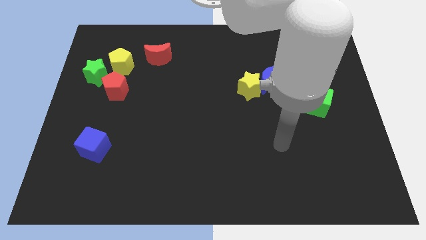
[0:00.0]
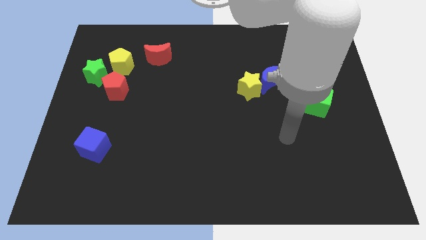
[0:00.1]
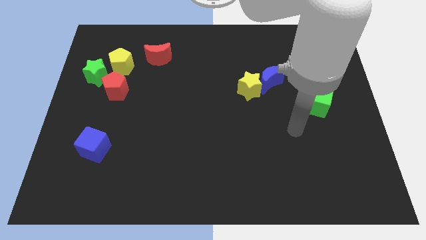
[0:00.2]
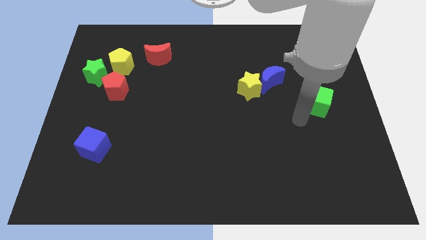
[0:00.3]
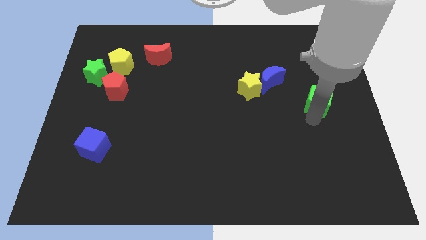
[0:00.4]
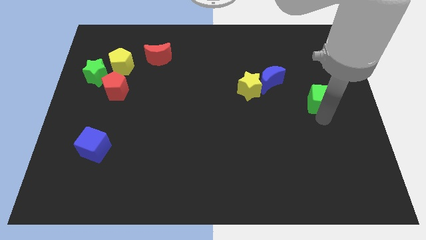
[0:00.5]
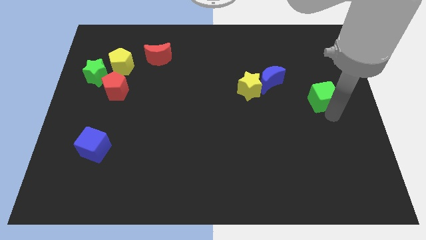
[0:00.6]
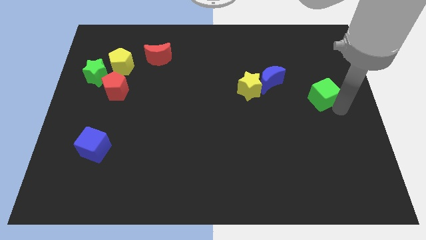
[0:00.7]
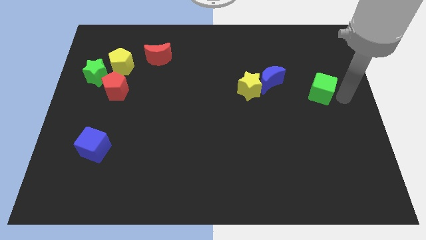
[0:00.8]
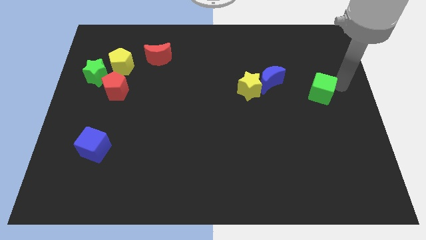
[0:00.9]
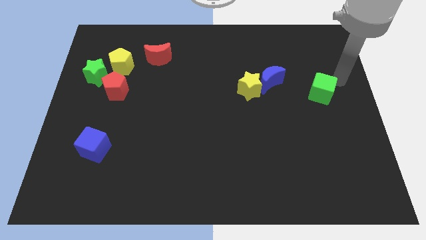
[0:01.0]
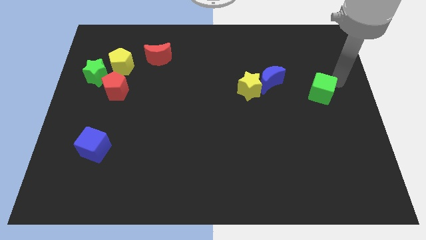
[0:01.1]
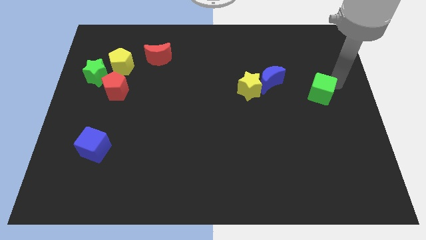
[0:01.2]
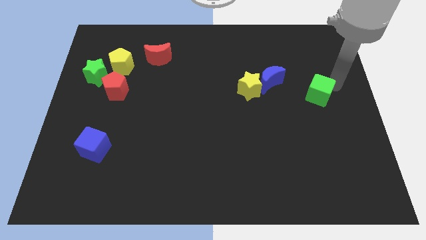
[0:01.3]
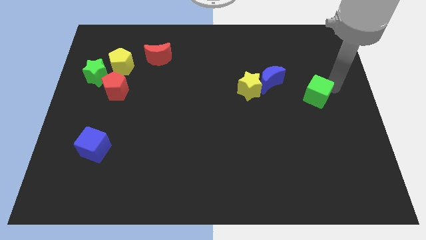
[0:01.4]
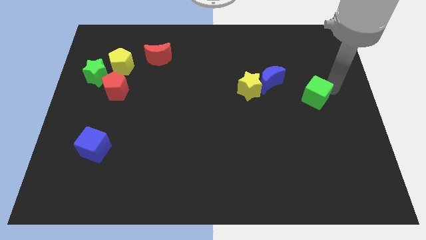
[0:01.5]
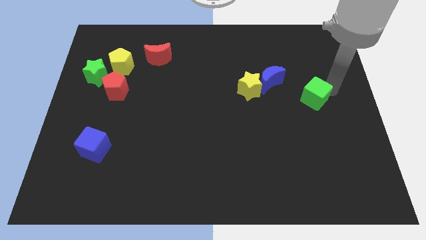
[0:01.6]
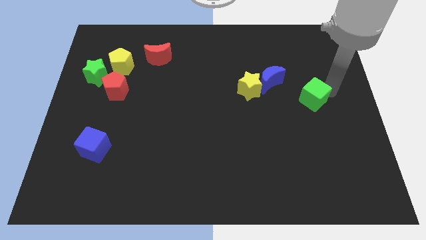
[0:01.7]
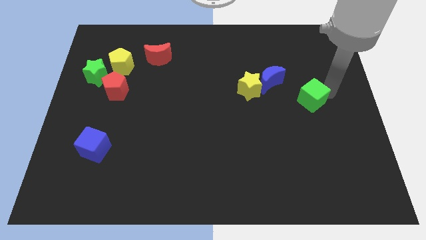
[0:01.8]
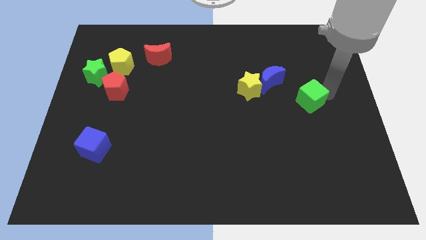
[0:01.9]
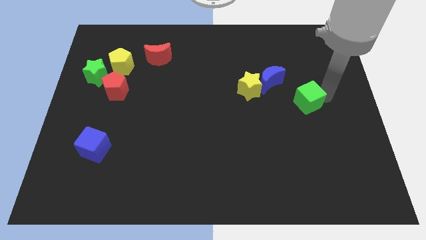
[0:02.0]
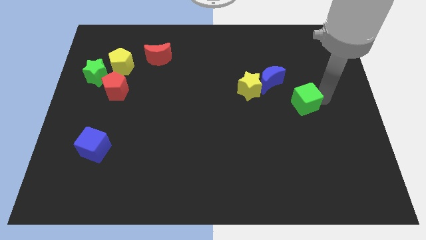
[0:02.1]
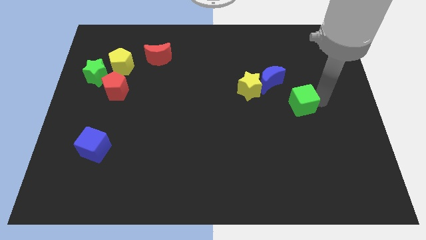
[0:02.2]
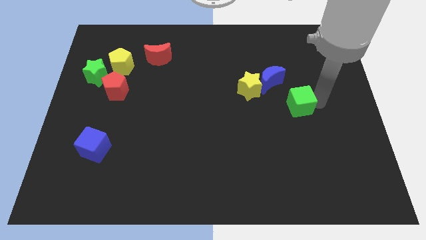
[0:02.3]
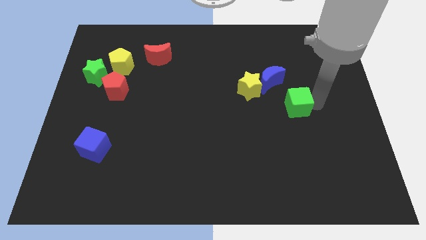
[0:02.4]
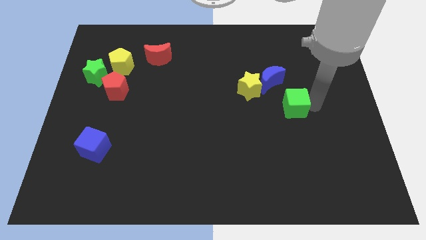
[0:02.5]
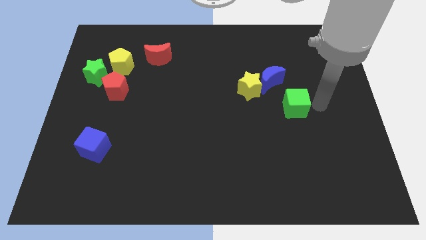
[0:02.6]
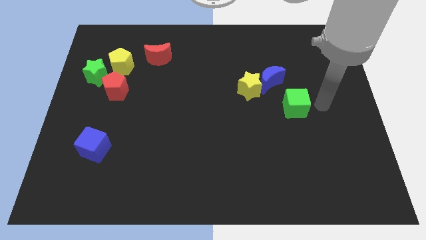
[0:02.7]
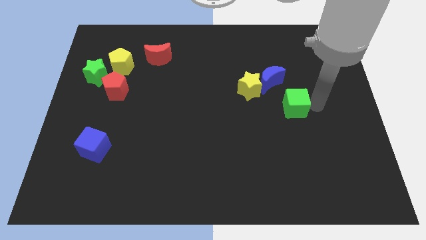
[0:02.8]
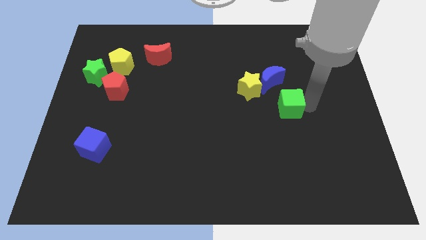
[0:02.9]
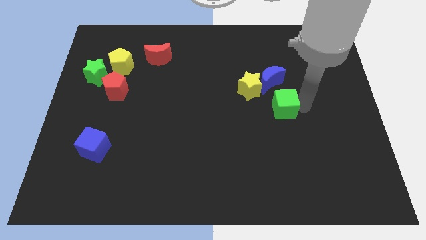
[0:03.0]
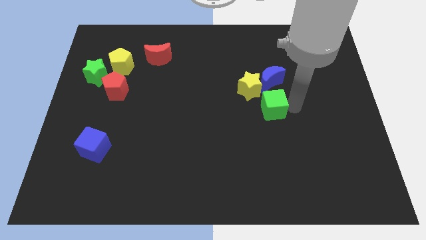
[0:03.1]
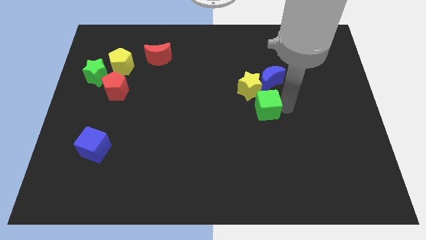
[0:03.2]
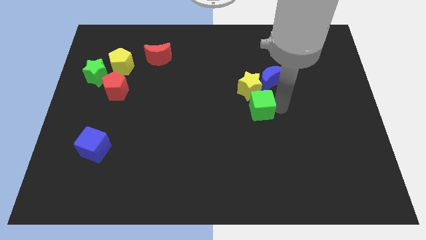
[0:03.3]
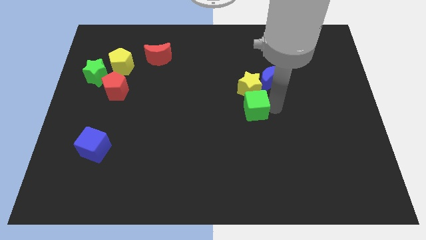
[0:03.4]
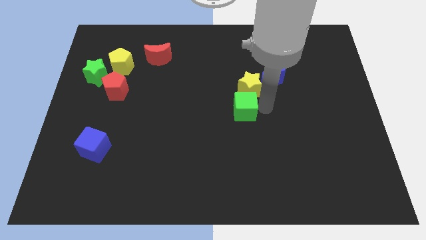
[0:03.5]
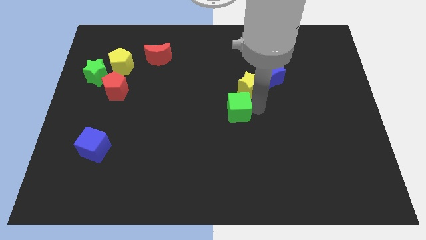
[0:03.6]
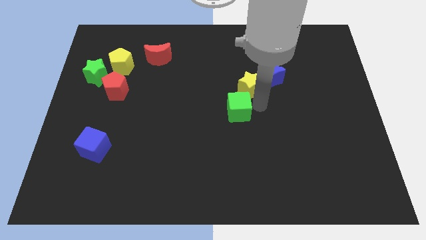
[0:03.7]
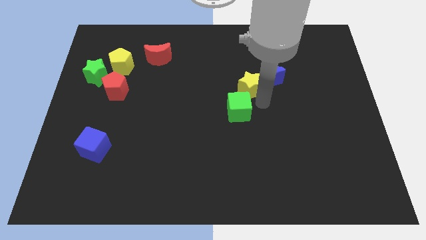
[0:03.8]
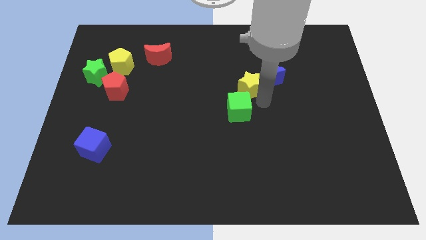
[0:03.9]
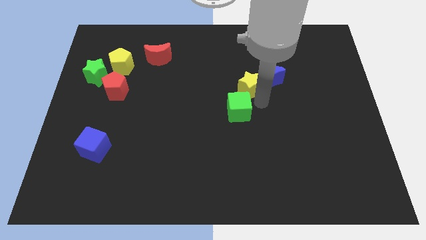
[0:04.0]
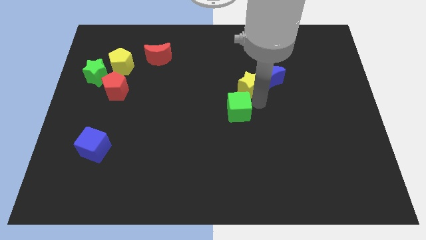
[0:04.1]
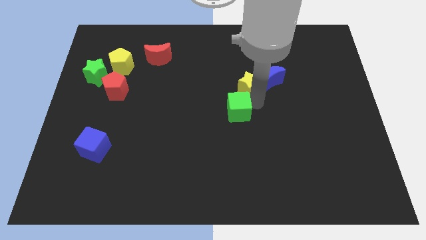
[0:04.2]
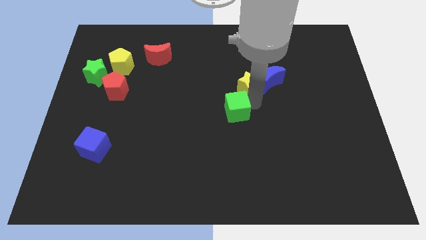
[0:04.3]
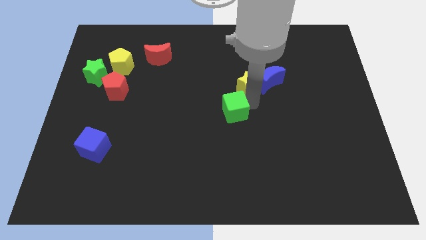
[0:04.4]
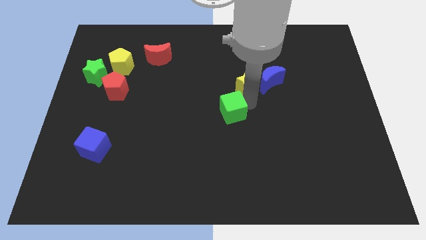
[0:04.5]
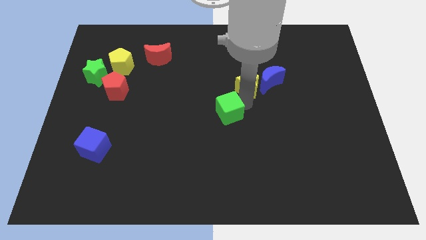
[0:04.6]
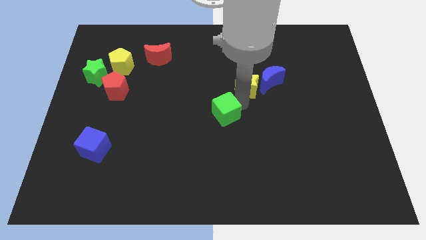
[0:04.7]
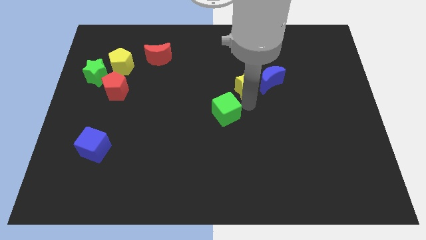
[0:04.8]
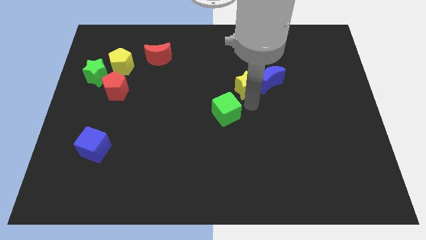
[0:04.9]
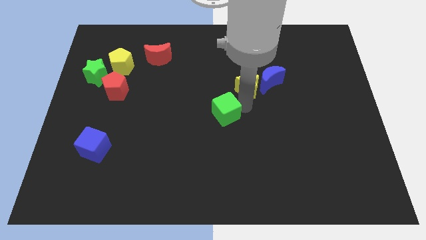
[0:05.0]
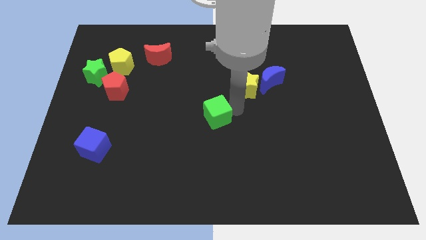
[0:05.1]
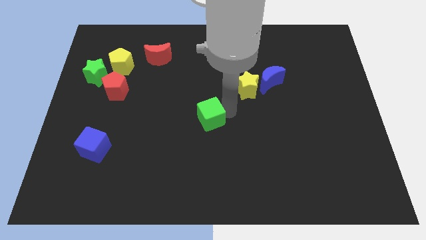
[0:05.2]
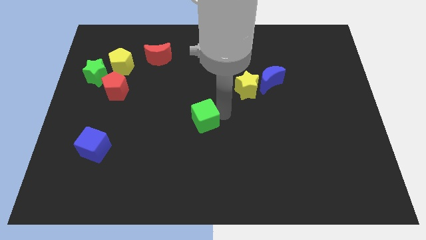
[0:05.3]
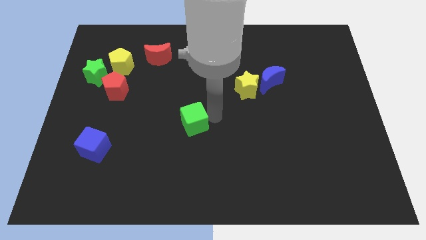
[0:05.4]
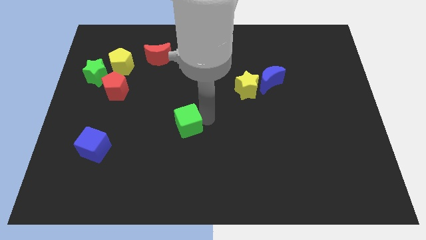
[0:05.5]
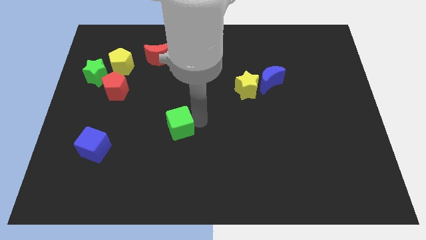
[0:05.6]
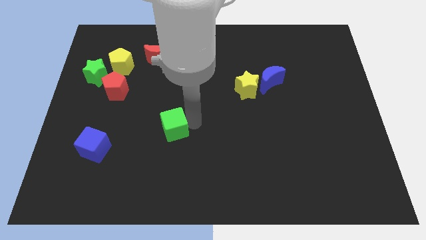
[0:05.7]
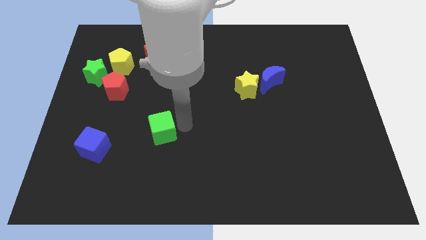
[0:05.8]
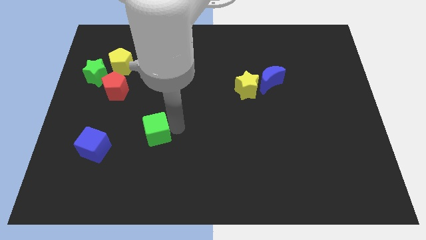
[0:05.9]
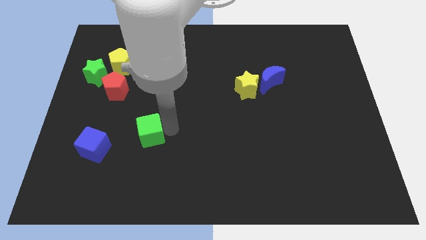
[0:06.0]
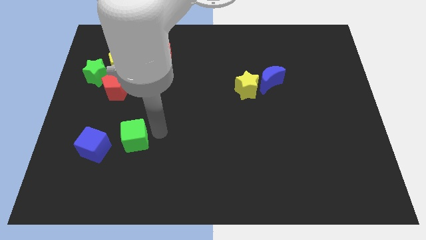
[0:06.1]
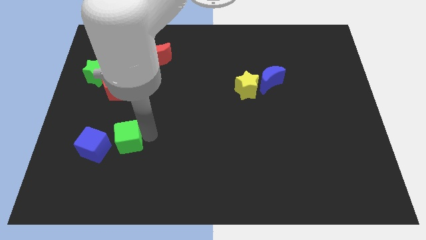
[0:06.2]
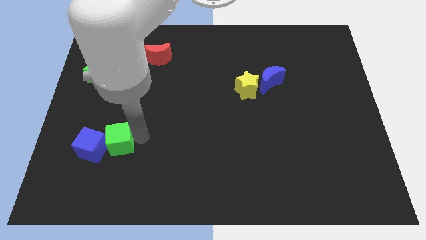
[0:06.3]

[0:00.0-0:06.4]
put the green cube to the blue cube

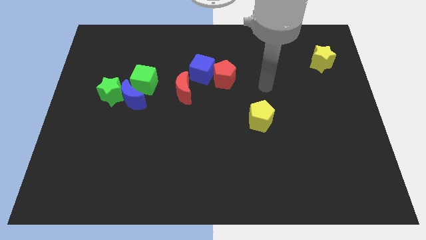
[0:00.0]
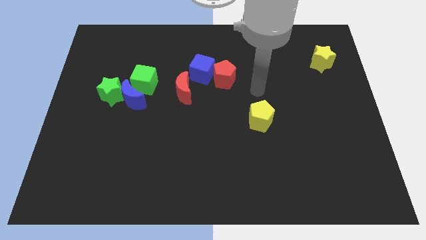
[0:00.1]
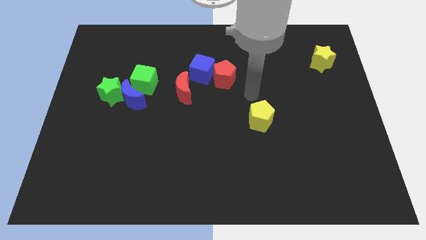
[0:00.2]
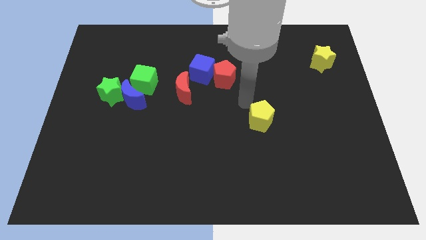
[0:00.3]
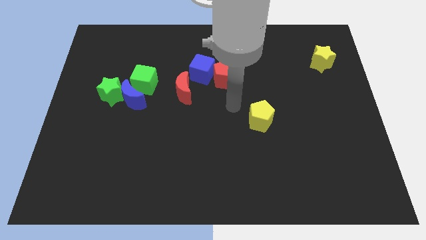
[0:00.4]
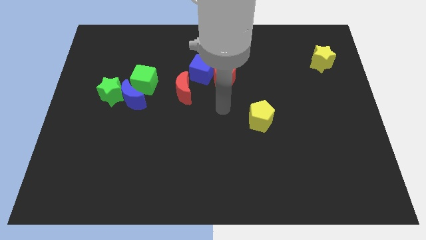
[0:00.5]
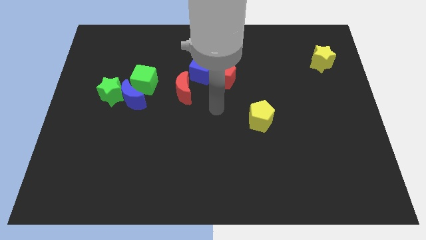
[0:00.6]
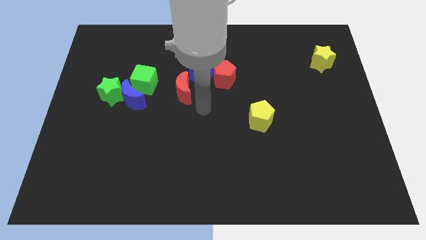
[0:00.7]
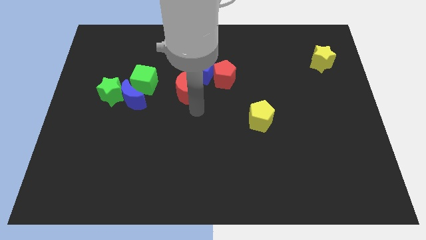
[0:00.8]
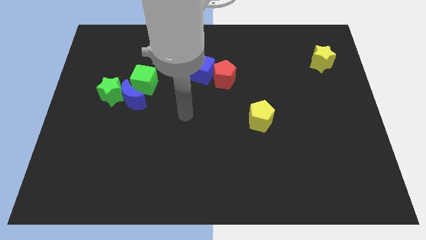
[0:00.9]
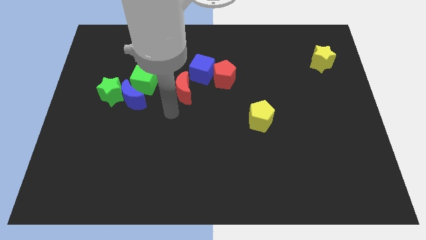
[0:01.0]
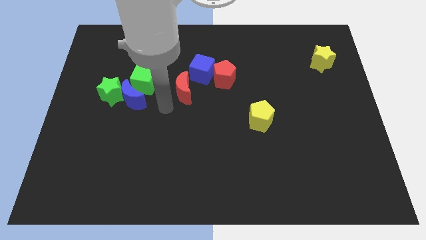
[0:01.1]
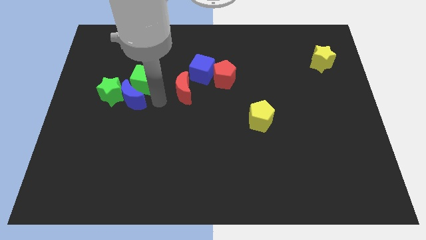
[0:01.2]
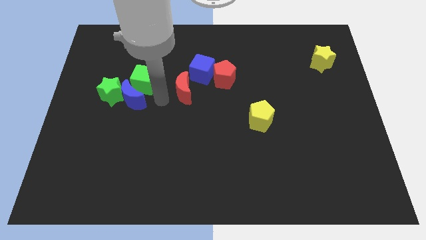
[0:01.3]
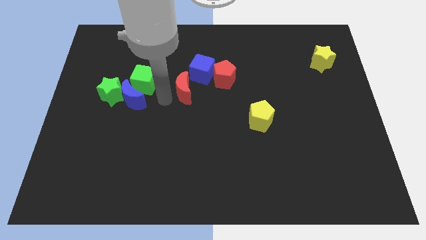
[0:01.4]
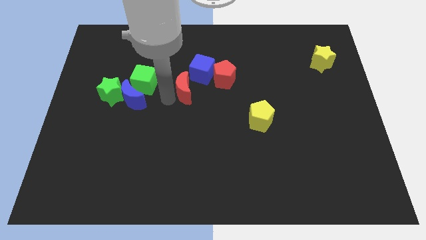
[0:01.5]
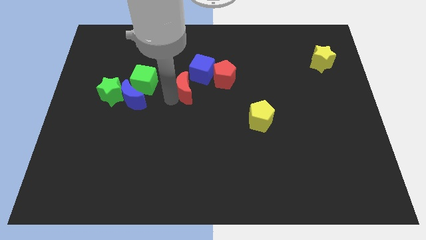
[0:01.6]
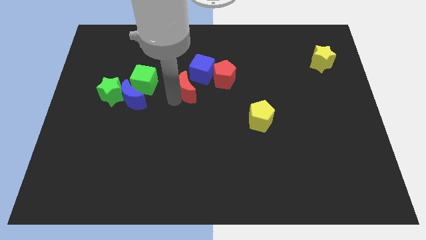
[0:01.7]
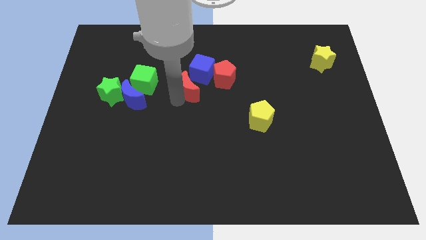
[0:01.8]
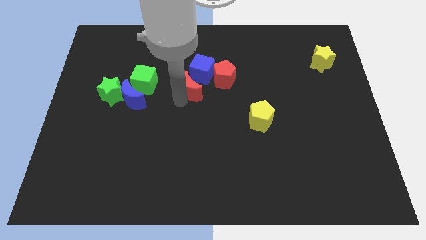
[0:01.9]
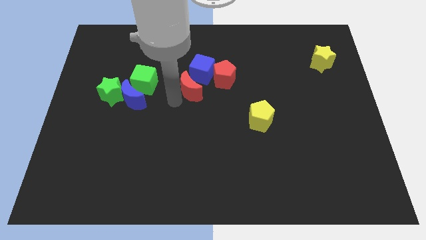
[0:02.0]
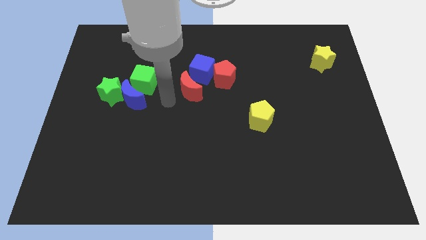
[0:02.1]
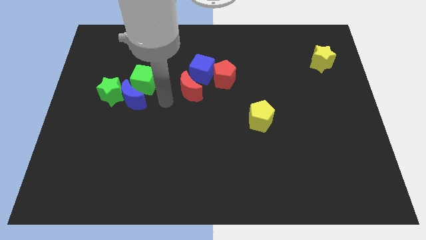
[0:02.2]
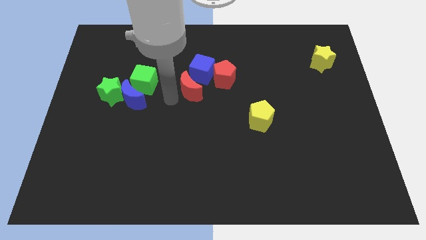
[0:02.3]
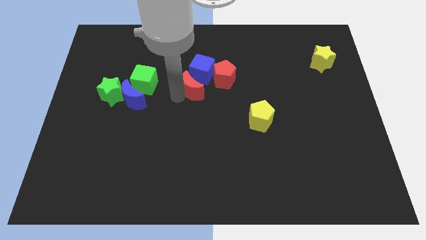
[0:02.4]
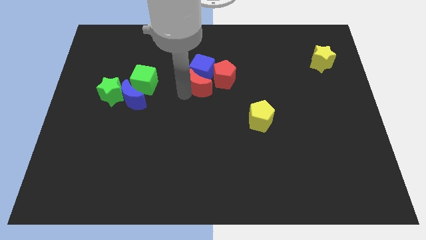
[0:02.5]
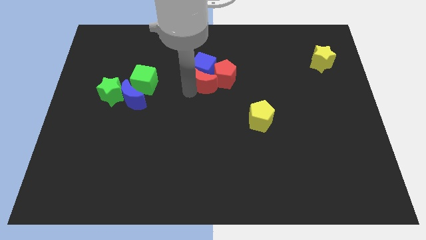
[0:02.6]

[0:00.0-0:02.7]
push the red moon to the red pentagon
